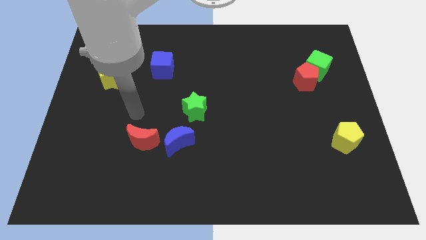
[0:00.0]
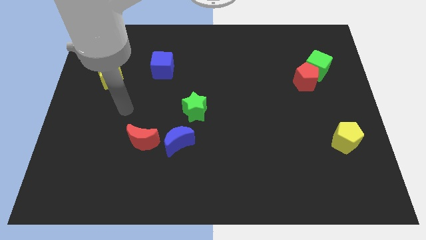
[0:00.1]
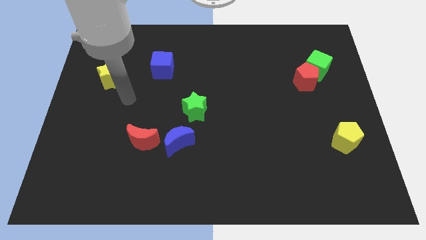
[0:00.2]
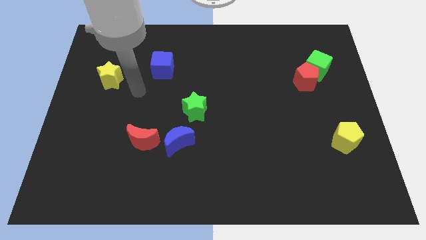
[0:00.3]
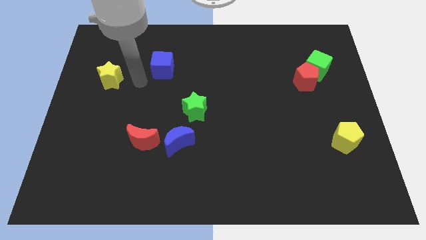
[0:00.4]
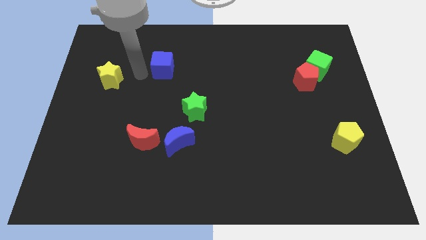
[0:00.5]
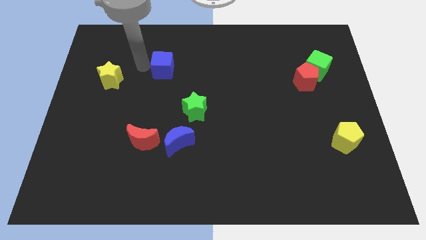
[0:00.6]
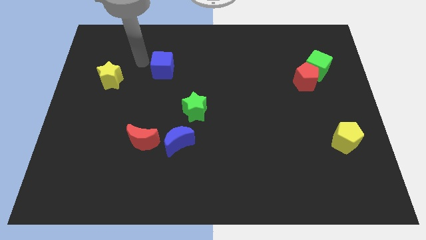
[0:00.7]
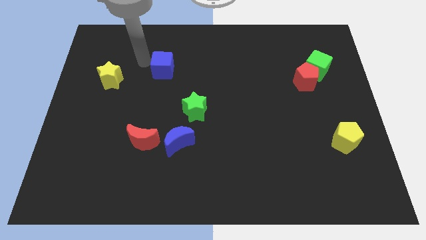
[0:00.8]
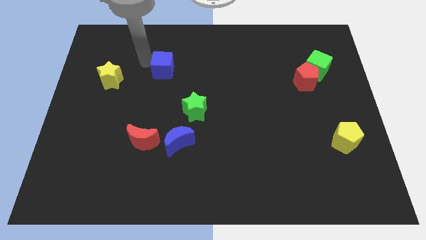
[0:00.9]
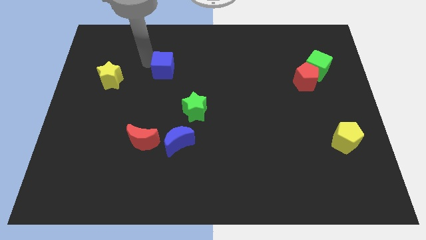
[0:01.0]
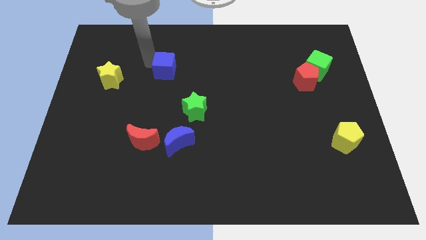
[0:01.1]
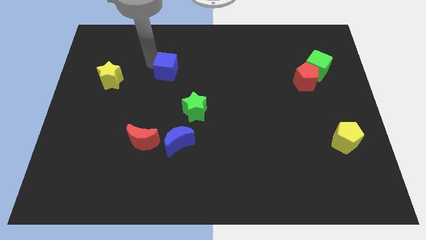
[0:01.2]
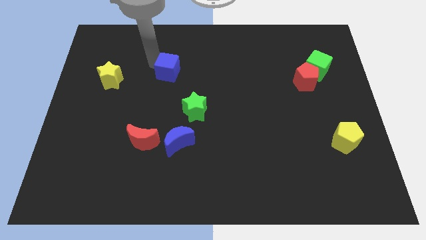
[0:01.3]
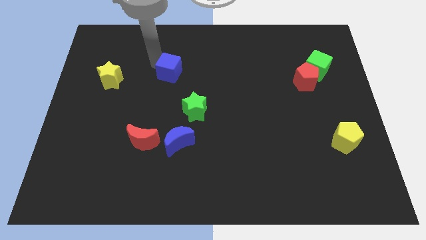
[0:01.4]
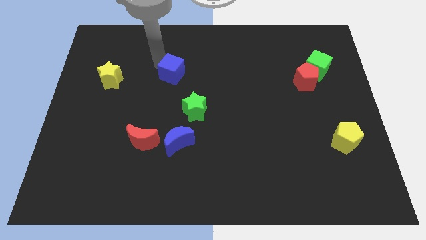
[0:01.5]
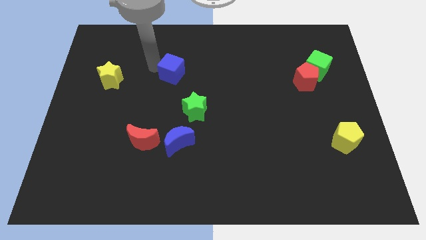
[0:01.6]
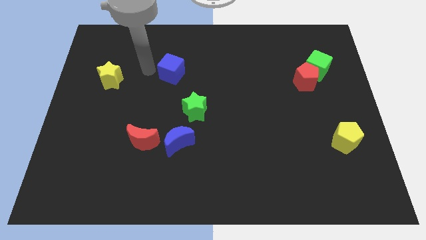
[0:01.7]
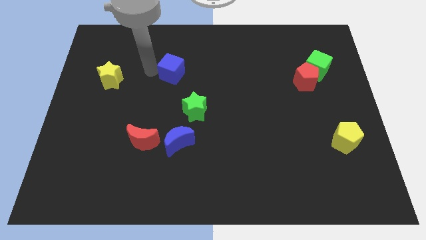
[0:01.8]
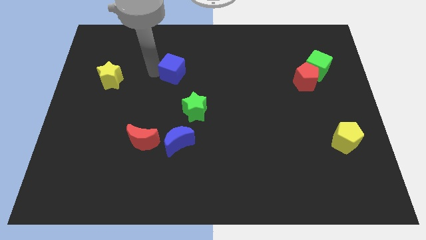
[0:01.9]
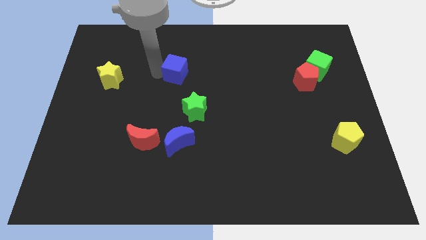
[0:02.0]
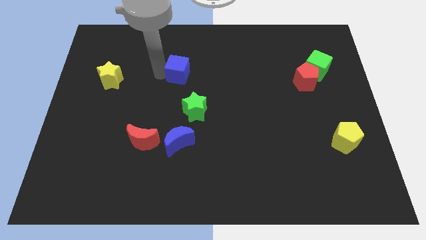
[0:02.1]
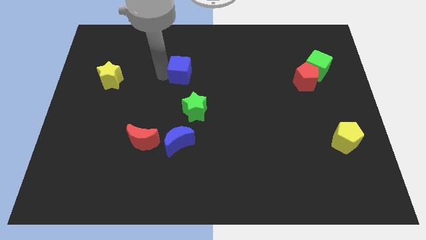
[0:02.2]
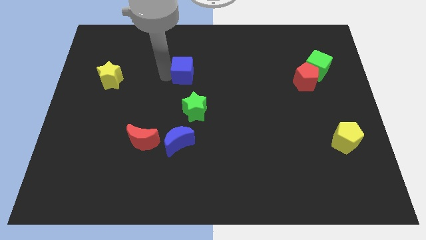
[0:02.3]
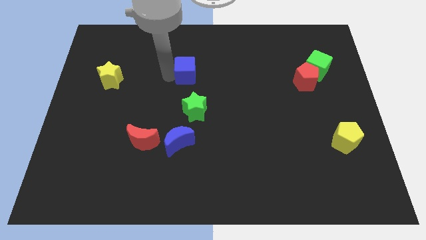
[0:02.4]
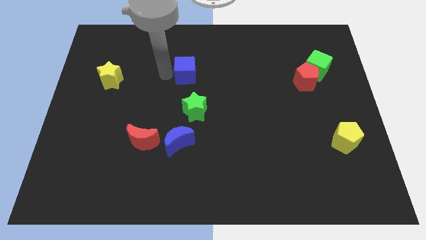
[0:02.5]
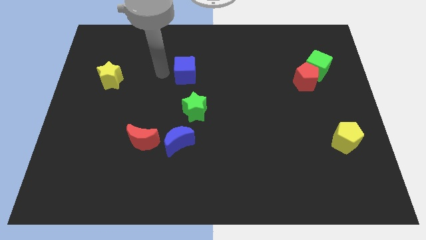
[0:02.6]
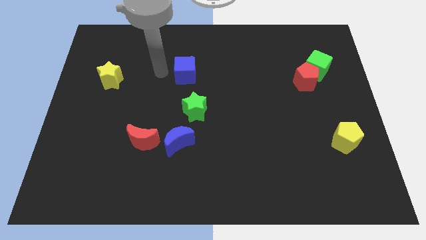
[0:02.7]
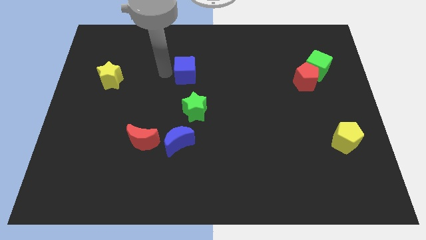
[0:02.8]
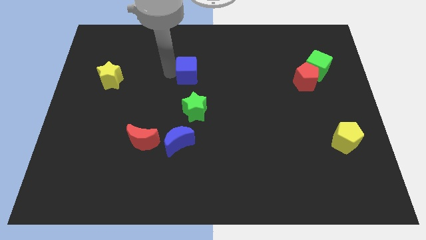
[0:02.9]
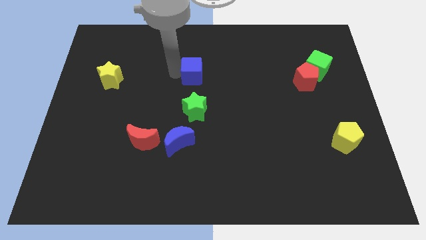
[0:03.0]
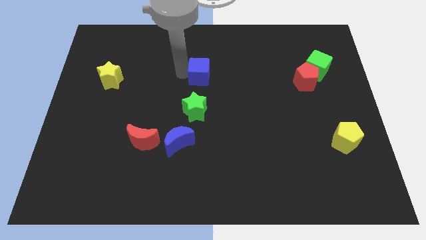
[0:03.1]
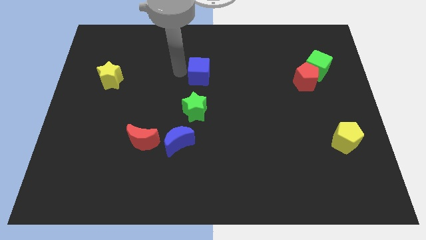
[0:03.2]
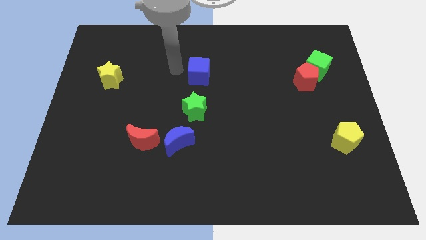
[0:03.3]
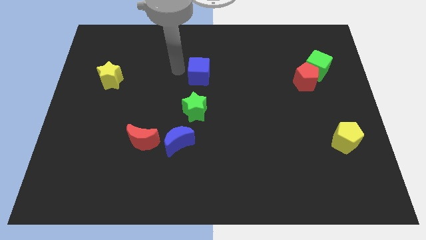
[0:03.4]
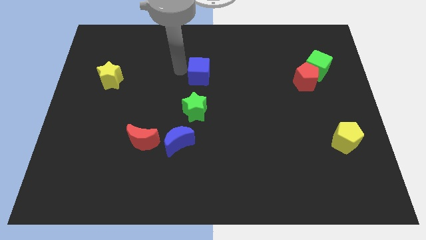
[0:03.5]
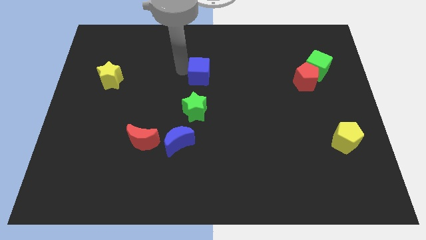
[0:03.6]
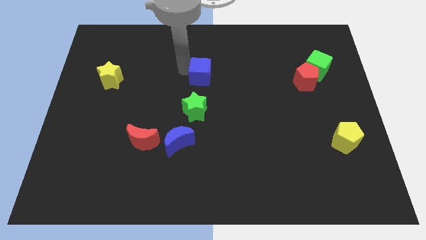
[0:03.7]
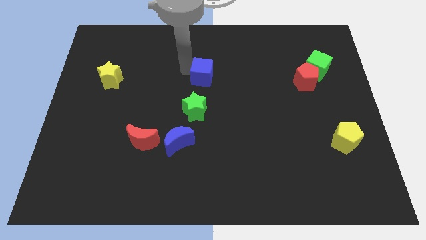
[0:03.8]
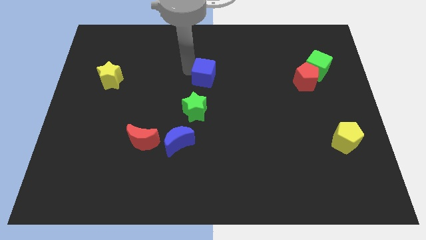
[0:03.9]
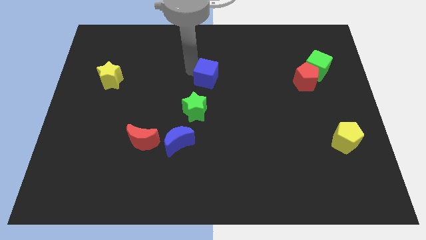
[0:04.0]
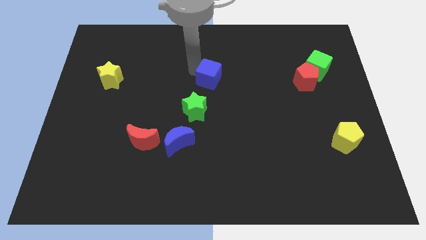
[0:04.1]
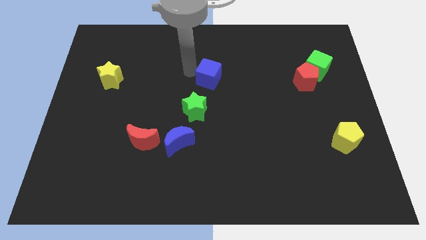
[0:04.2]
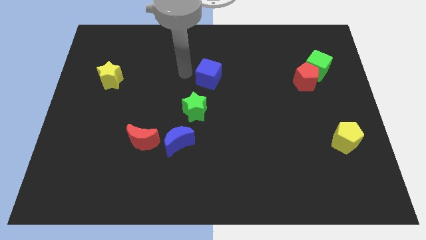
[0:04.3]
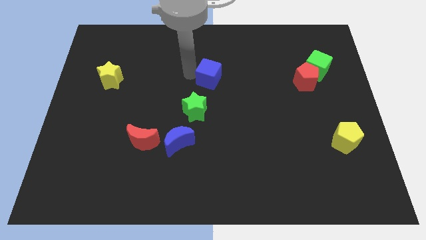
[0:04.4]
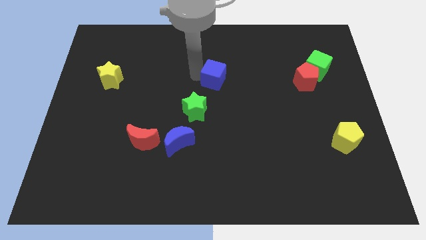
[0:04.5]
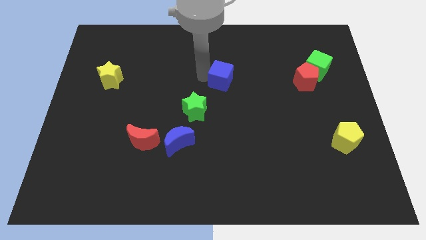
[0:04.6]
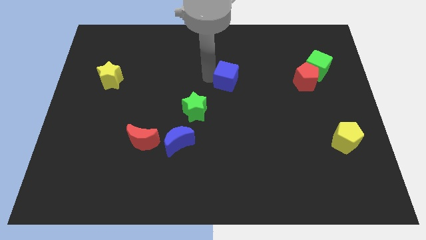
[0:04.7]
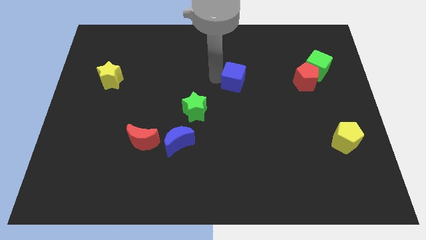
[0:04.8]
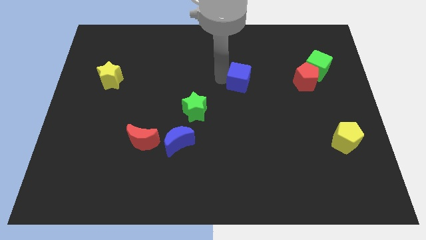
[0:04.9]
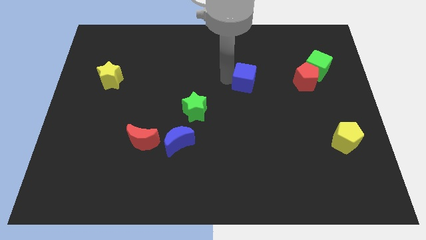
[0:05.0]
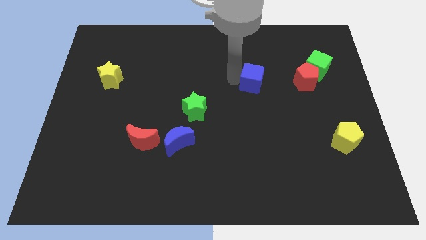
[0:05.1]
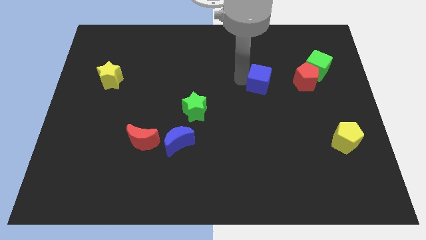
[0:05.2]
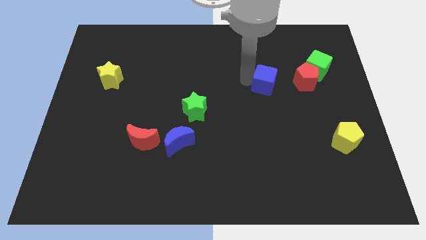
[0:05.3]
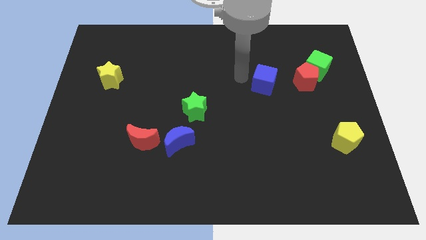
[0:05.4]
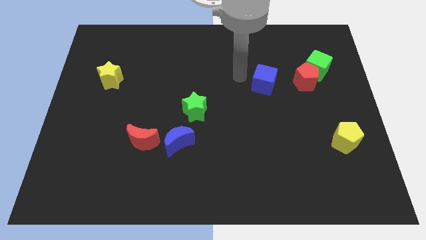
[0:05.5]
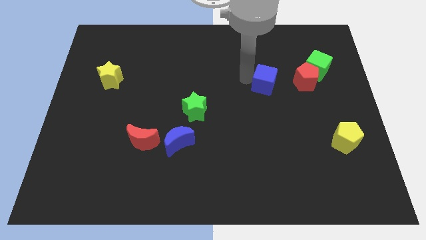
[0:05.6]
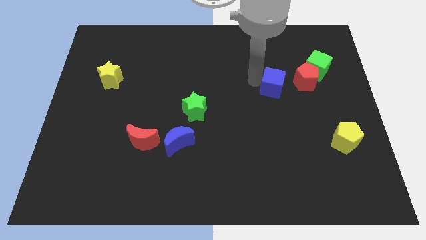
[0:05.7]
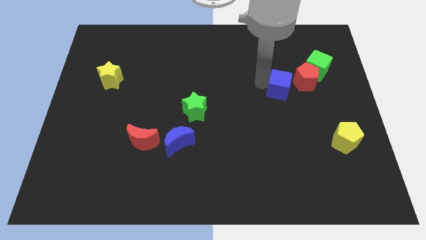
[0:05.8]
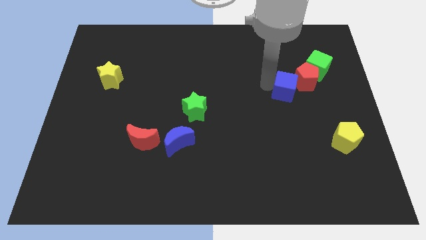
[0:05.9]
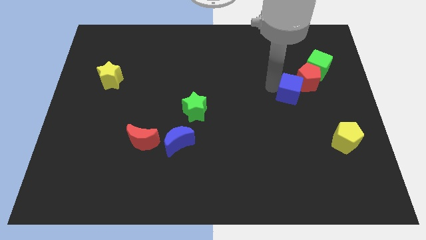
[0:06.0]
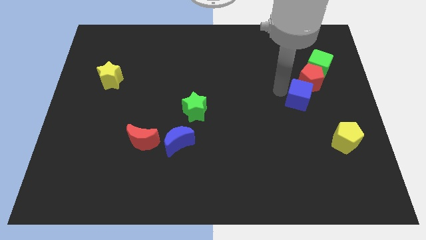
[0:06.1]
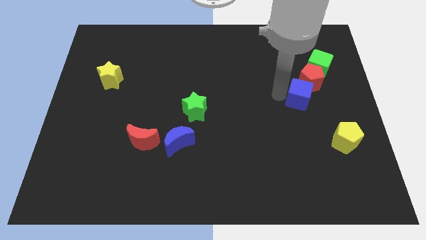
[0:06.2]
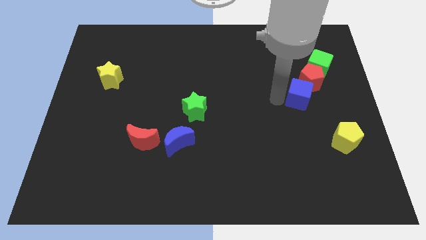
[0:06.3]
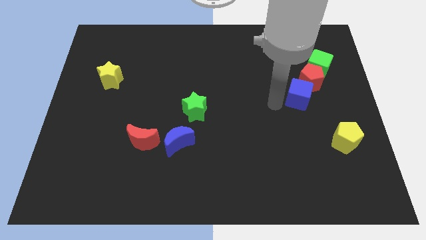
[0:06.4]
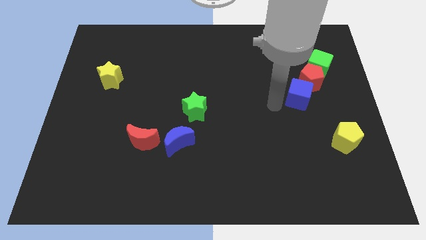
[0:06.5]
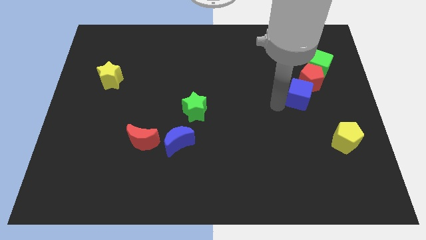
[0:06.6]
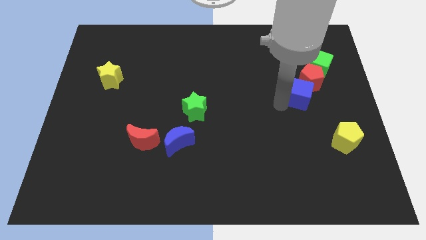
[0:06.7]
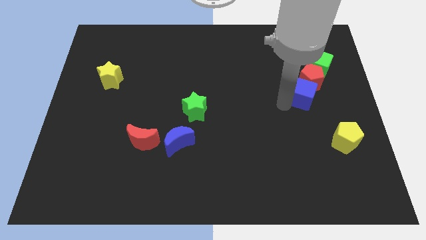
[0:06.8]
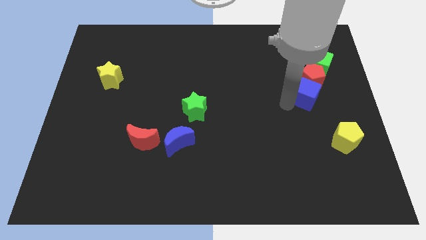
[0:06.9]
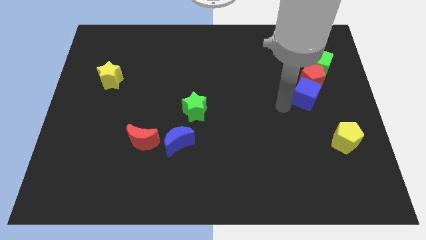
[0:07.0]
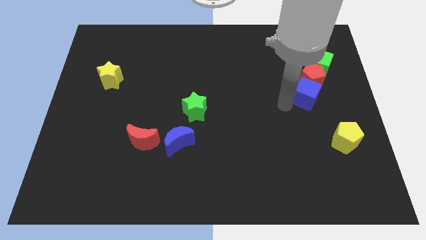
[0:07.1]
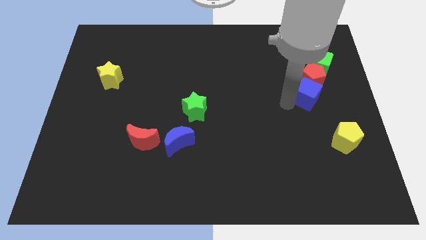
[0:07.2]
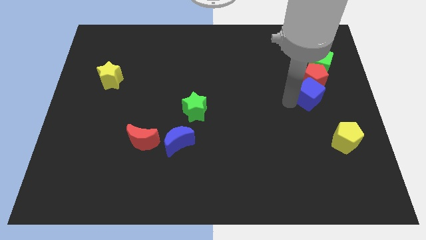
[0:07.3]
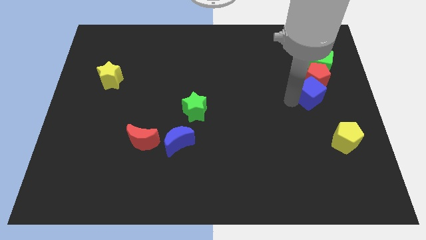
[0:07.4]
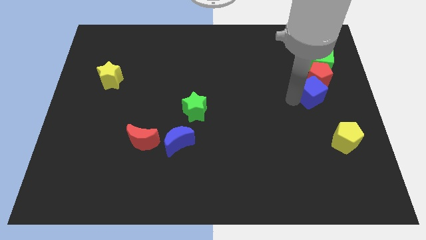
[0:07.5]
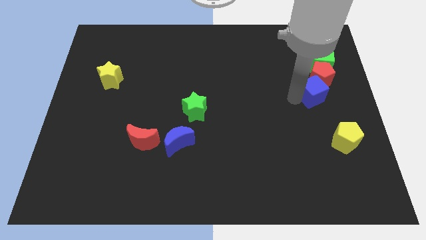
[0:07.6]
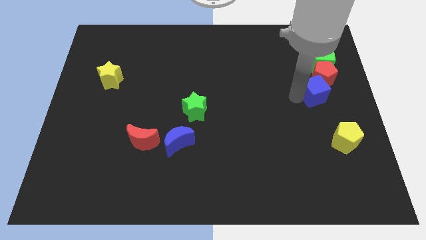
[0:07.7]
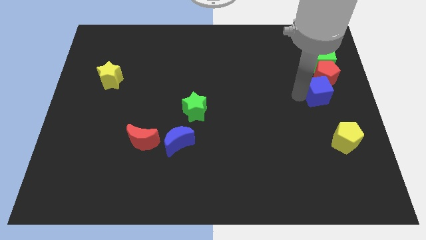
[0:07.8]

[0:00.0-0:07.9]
put the blue cube to the right side
